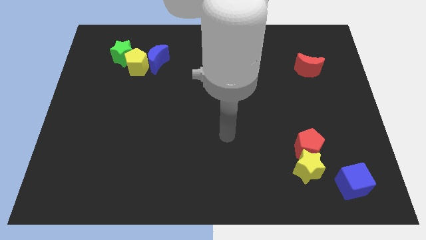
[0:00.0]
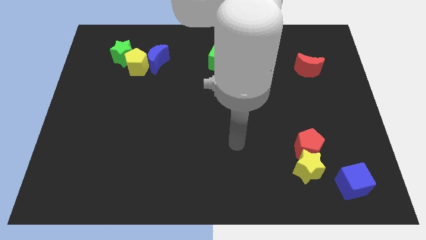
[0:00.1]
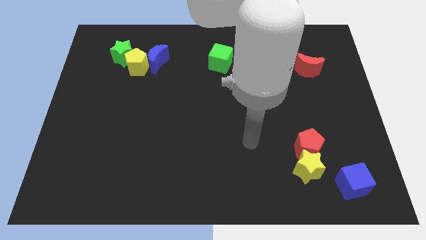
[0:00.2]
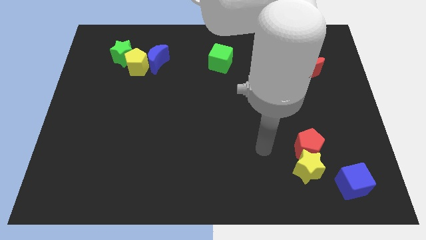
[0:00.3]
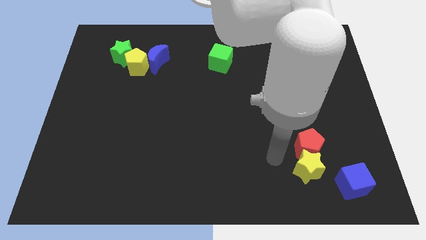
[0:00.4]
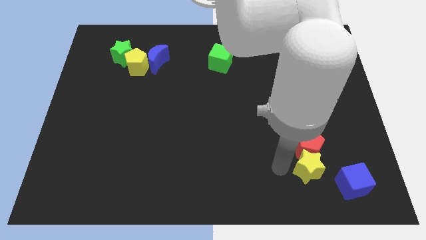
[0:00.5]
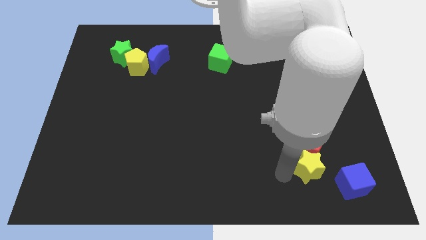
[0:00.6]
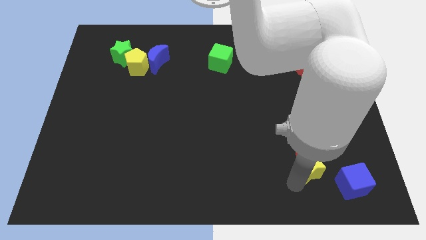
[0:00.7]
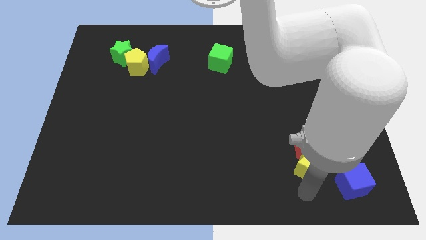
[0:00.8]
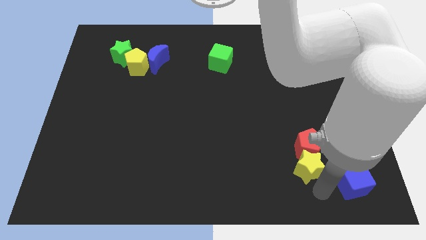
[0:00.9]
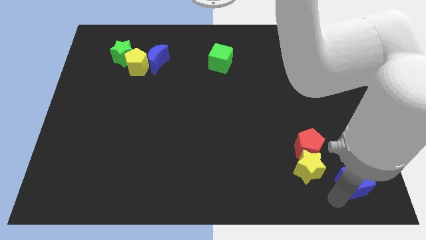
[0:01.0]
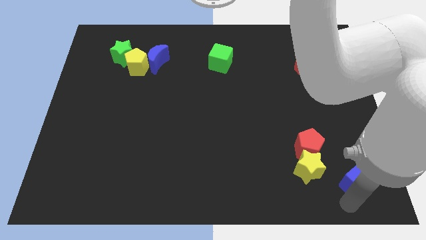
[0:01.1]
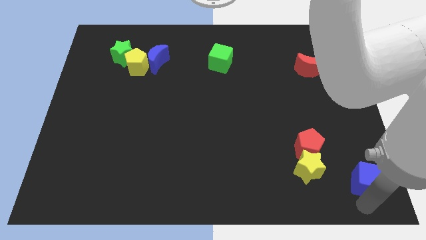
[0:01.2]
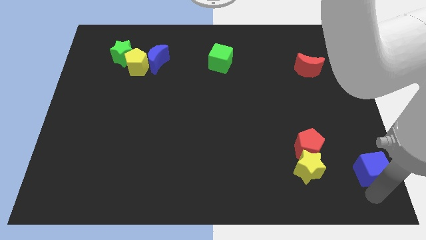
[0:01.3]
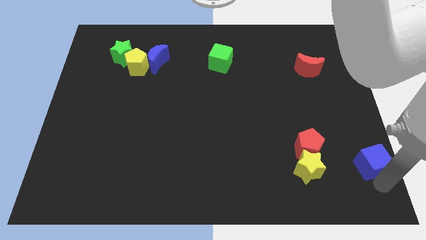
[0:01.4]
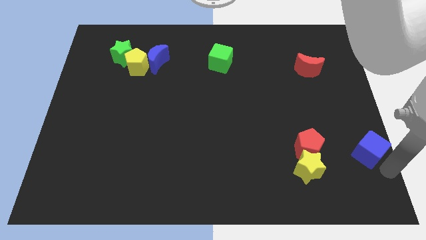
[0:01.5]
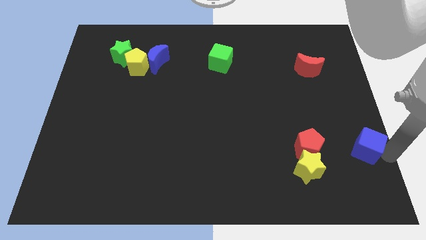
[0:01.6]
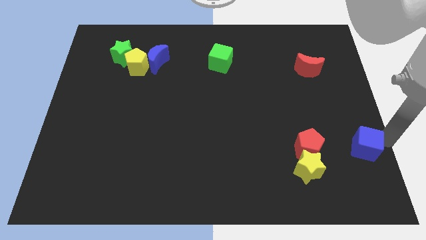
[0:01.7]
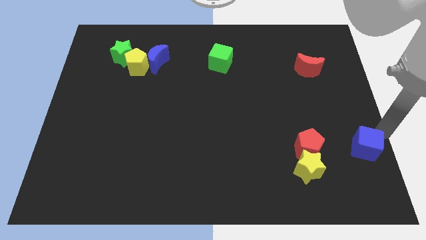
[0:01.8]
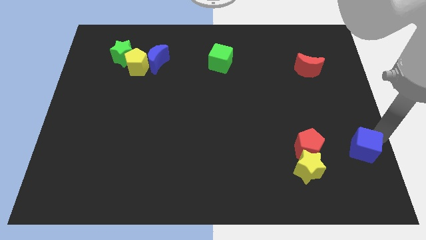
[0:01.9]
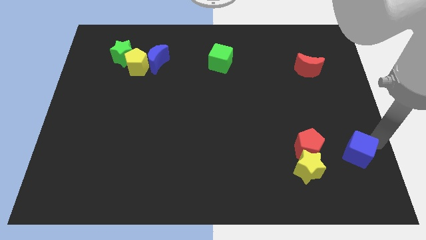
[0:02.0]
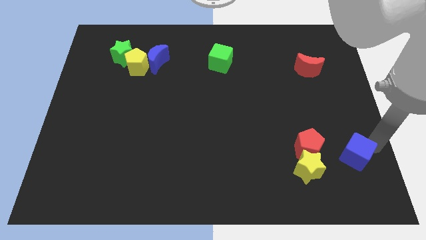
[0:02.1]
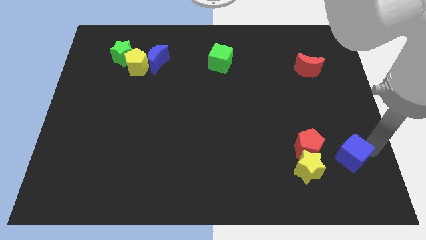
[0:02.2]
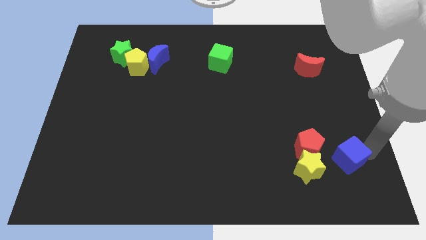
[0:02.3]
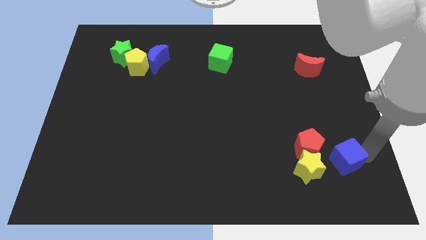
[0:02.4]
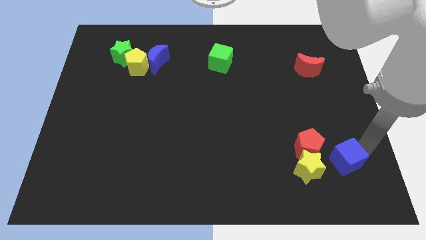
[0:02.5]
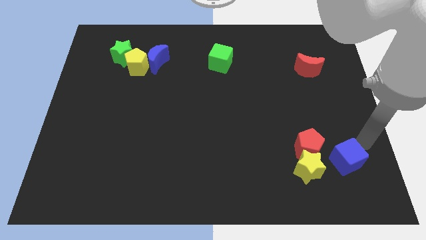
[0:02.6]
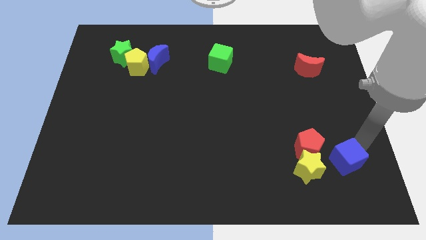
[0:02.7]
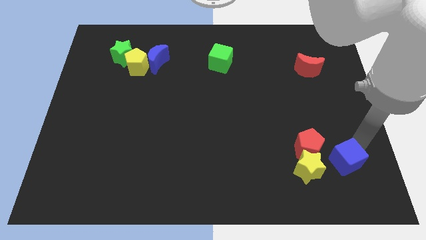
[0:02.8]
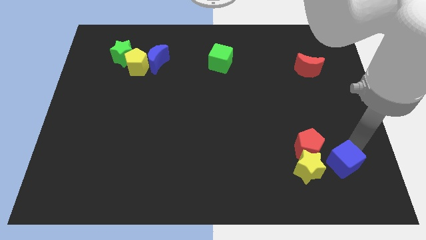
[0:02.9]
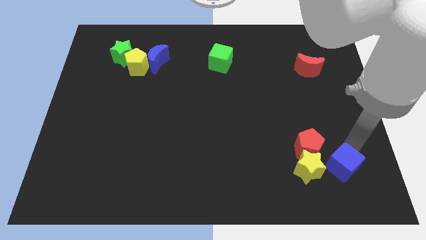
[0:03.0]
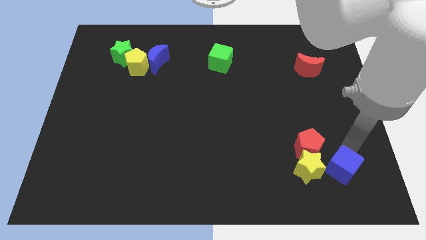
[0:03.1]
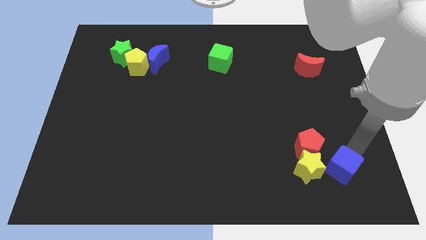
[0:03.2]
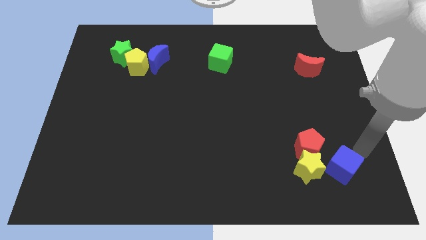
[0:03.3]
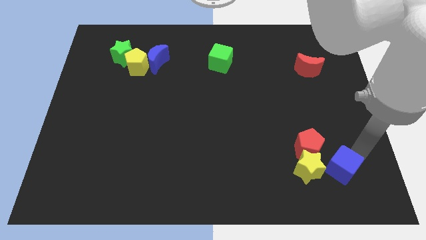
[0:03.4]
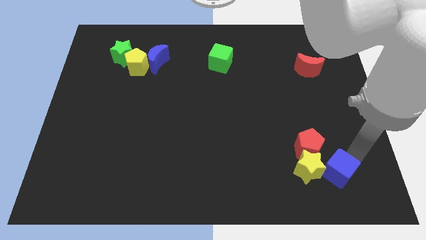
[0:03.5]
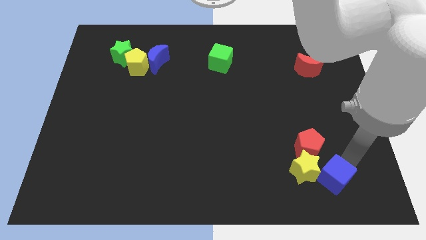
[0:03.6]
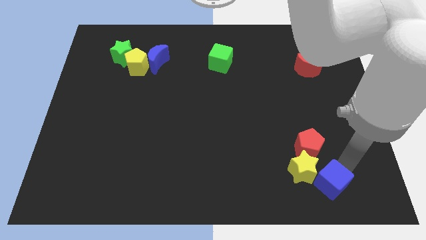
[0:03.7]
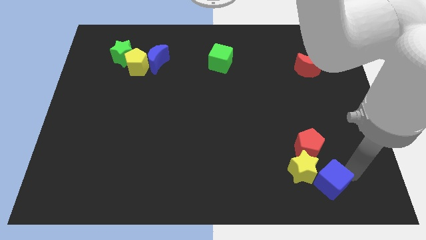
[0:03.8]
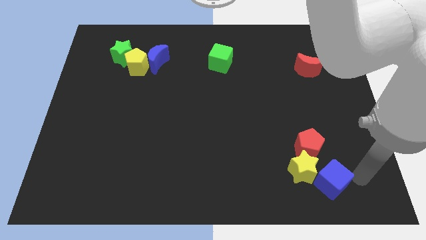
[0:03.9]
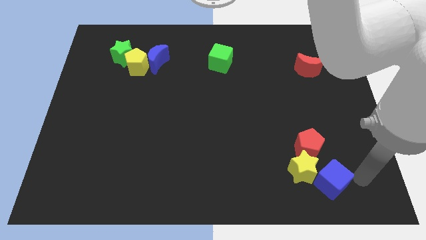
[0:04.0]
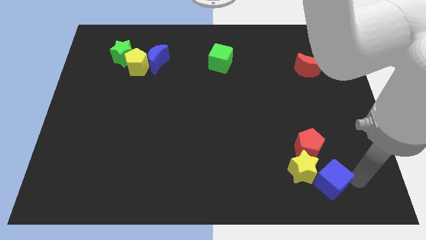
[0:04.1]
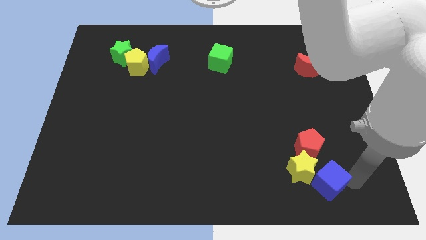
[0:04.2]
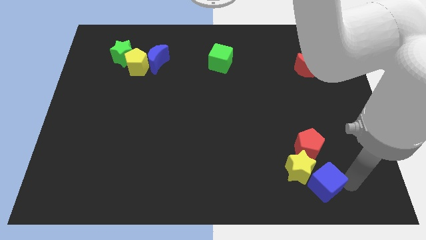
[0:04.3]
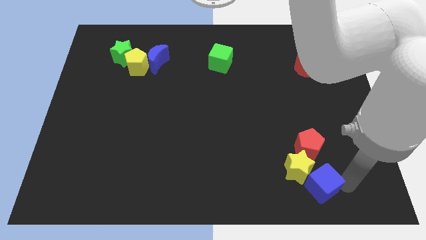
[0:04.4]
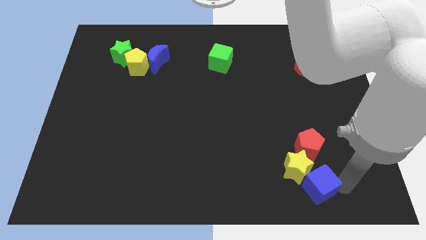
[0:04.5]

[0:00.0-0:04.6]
slightly move the blue cube left

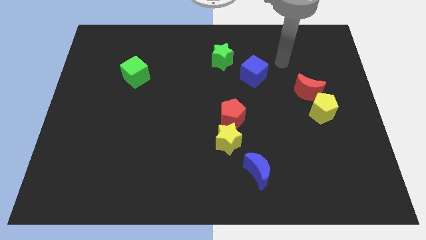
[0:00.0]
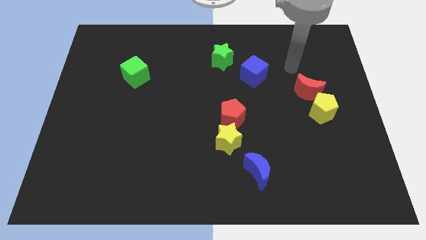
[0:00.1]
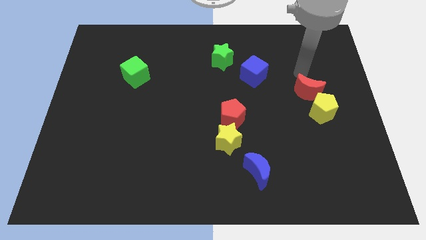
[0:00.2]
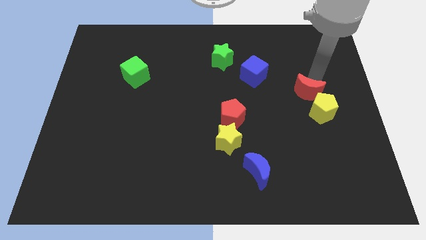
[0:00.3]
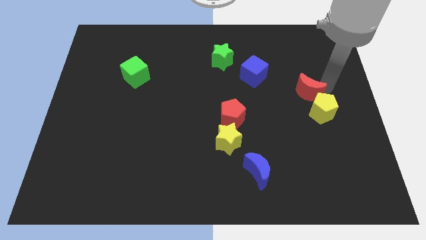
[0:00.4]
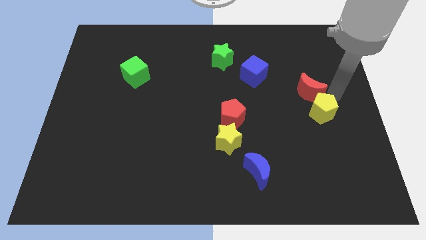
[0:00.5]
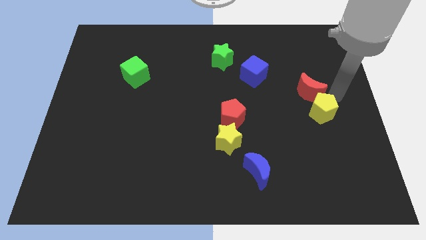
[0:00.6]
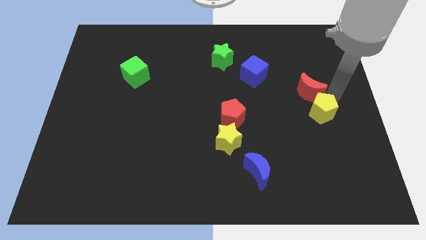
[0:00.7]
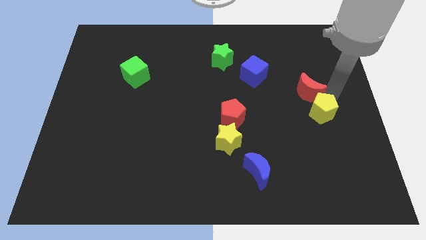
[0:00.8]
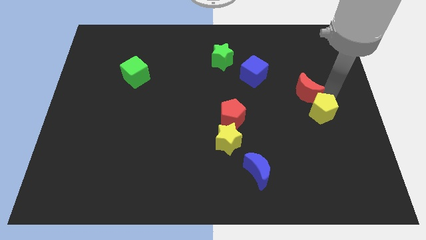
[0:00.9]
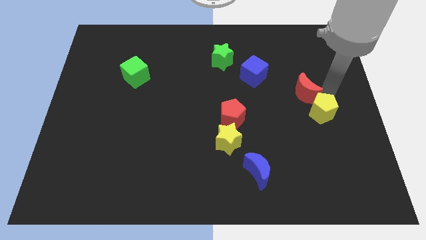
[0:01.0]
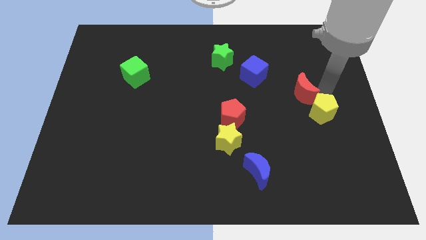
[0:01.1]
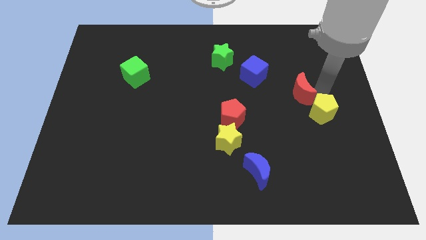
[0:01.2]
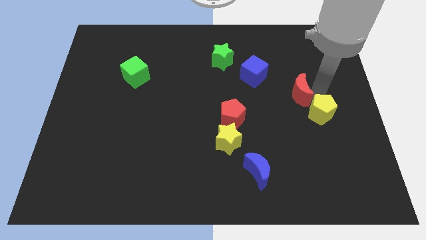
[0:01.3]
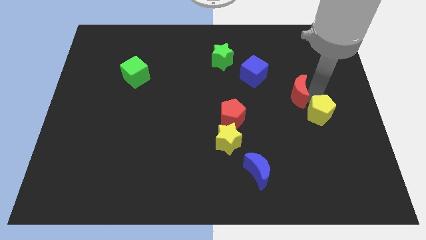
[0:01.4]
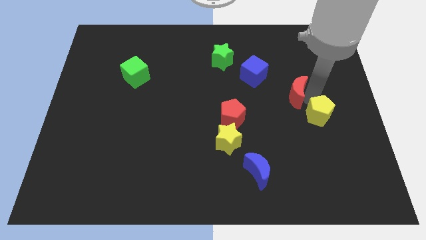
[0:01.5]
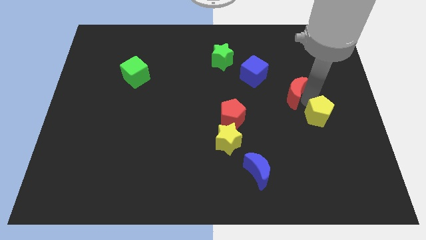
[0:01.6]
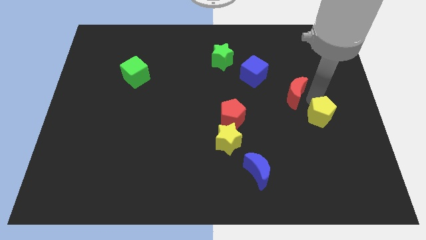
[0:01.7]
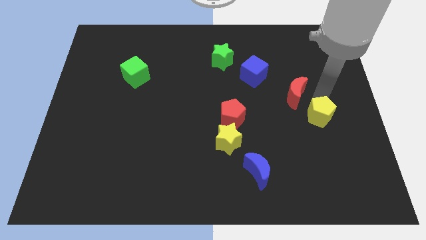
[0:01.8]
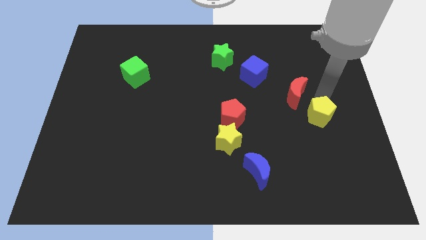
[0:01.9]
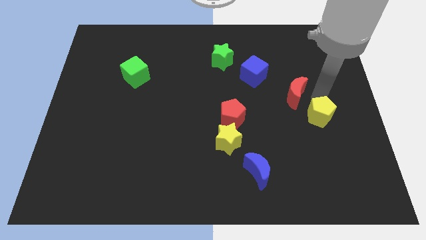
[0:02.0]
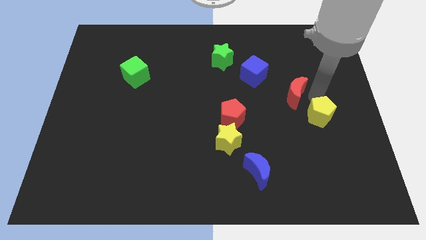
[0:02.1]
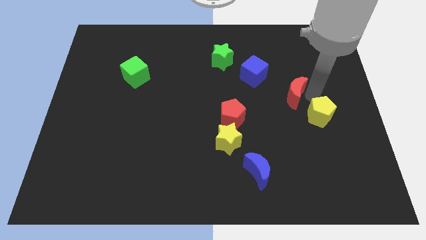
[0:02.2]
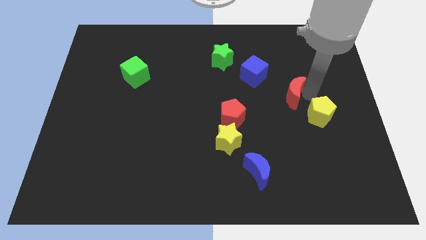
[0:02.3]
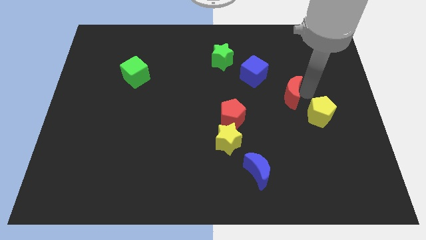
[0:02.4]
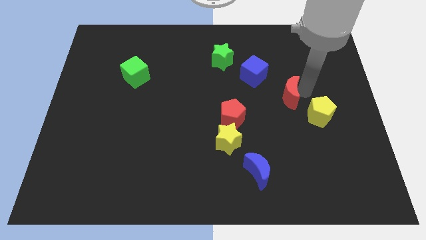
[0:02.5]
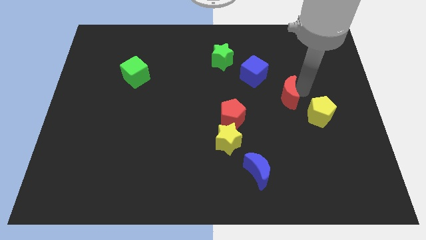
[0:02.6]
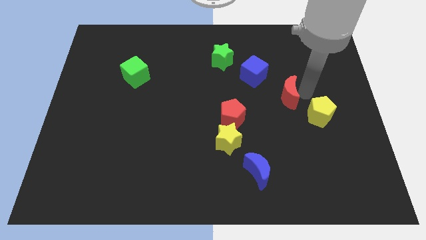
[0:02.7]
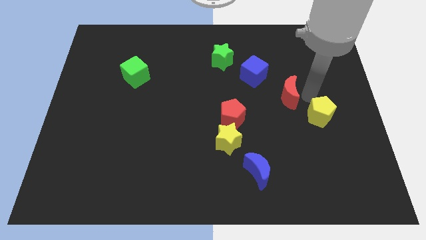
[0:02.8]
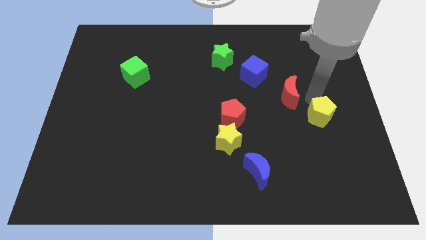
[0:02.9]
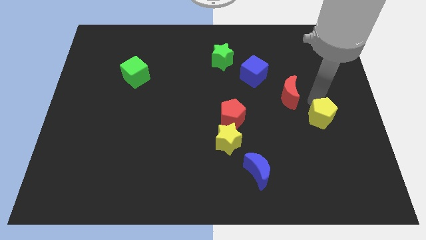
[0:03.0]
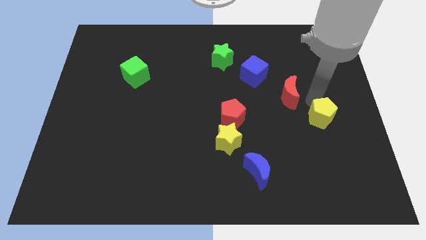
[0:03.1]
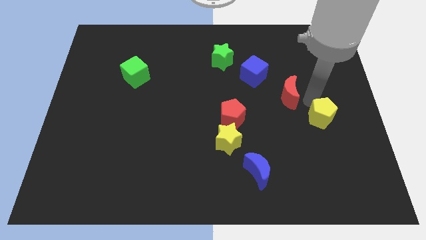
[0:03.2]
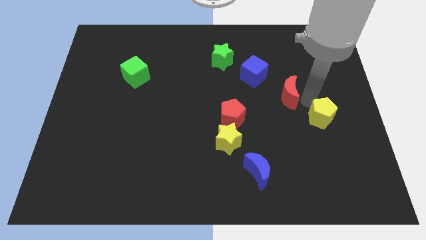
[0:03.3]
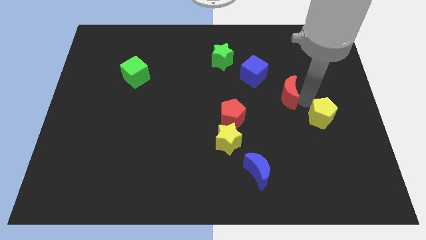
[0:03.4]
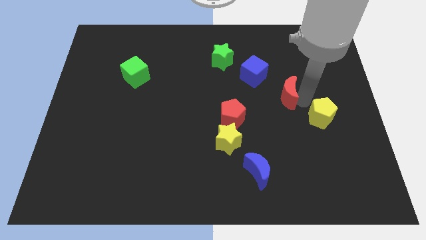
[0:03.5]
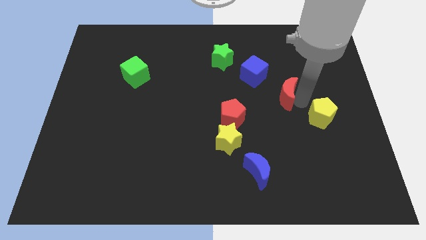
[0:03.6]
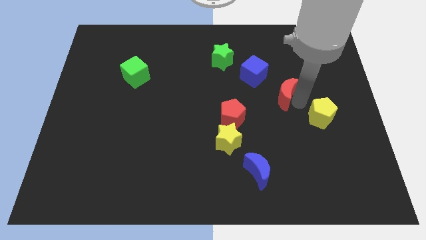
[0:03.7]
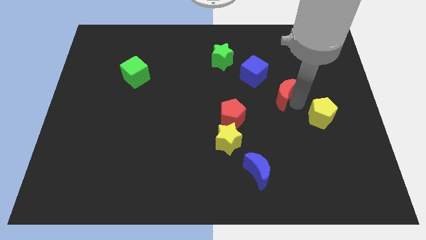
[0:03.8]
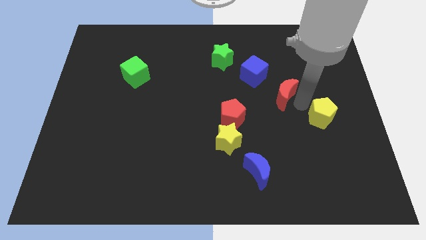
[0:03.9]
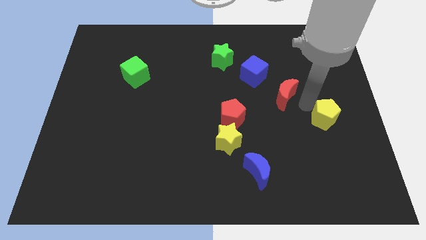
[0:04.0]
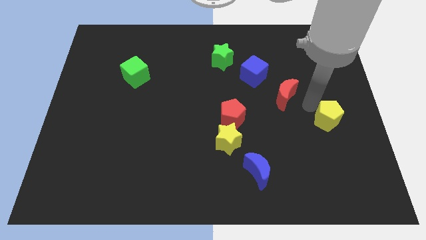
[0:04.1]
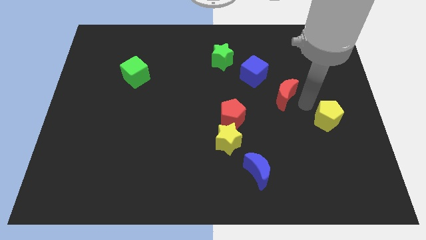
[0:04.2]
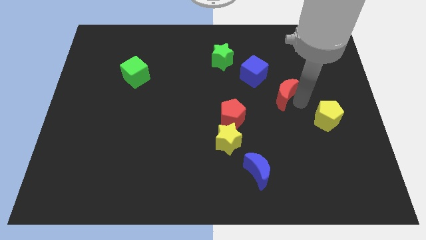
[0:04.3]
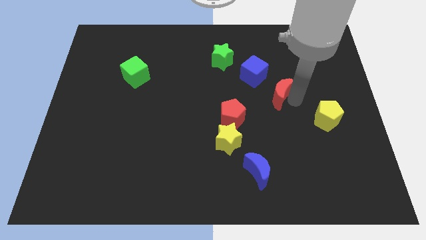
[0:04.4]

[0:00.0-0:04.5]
slightly push the red moon to the left
